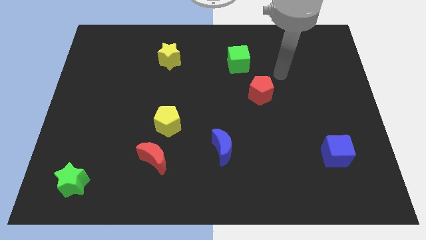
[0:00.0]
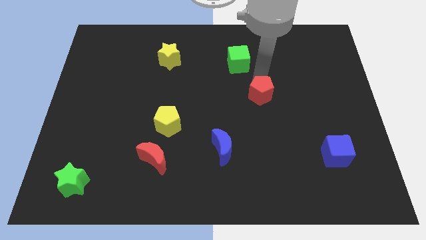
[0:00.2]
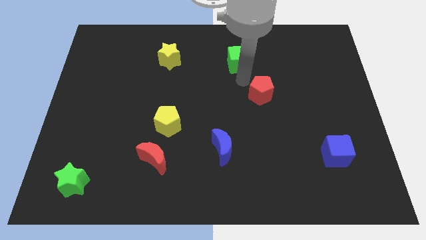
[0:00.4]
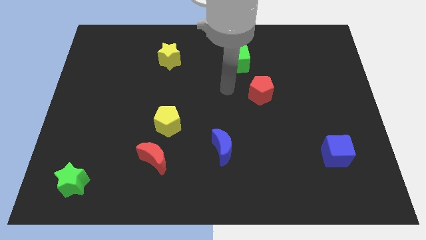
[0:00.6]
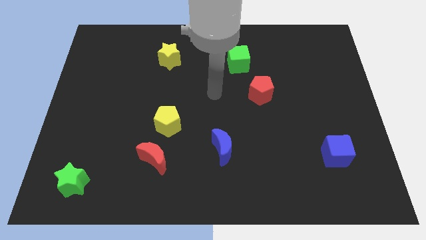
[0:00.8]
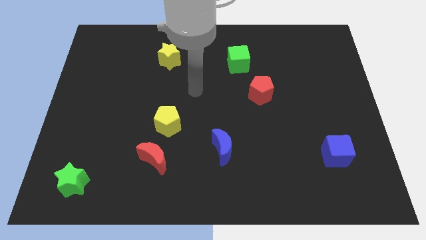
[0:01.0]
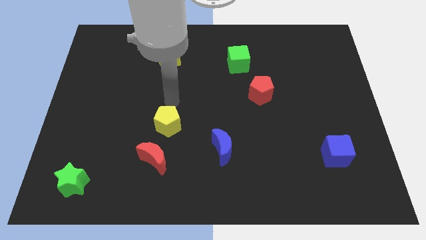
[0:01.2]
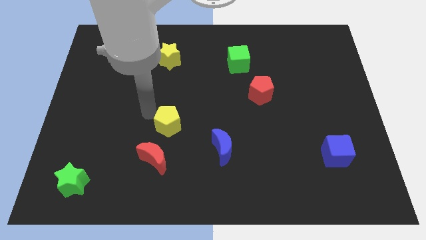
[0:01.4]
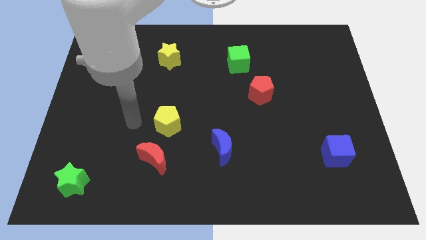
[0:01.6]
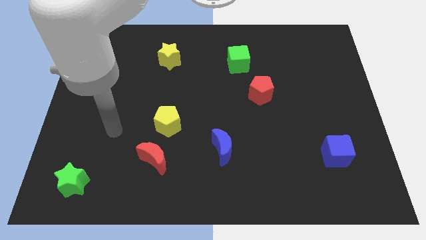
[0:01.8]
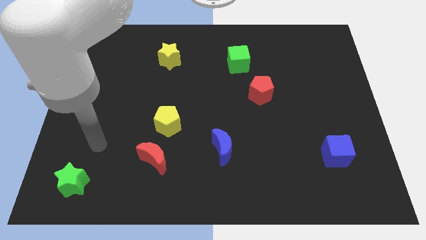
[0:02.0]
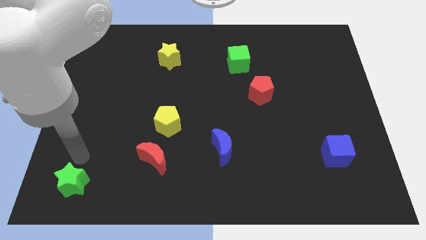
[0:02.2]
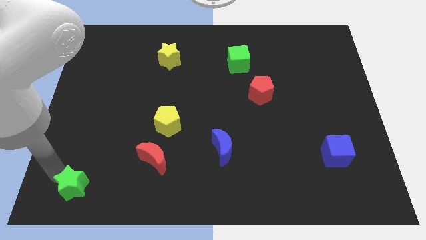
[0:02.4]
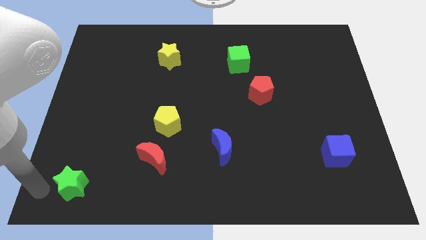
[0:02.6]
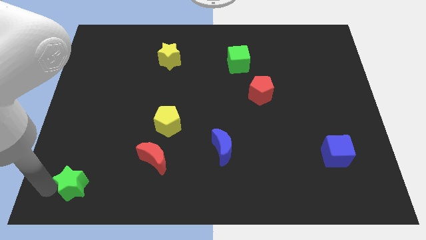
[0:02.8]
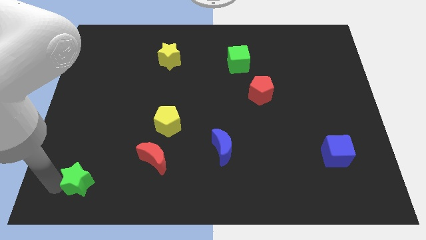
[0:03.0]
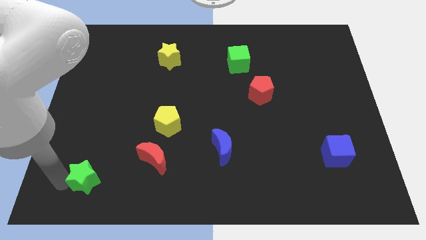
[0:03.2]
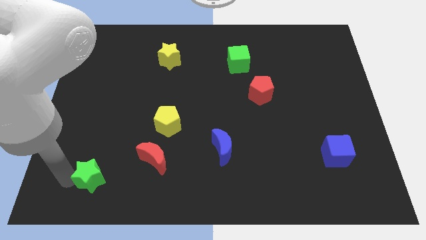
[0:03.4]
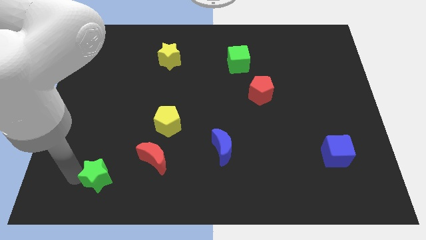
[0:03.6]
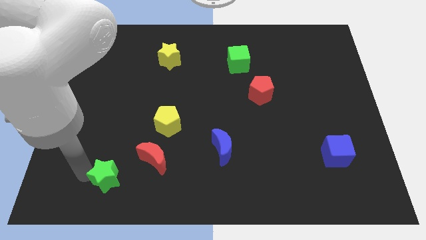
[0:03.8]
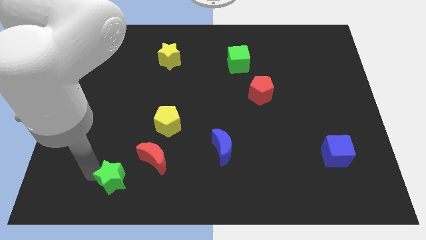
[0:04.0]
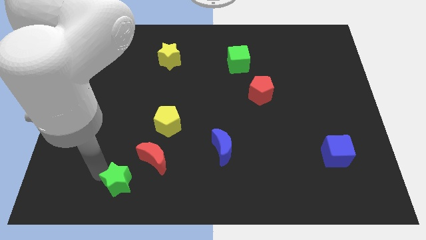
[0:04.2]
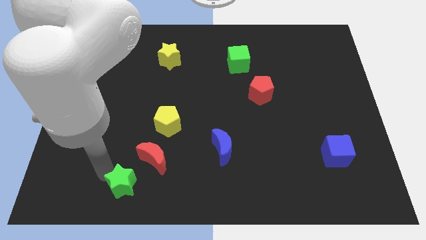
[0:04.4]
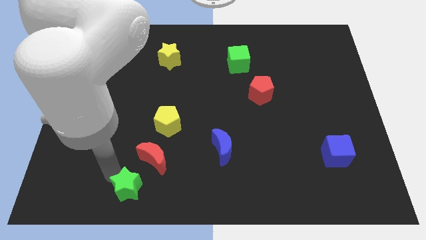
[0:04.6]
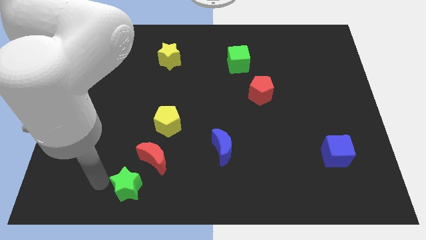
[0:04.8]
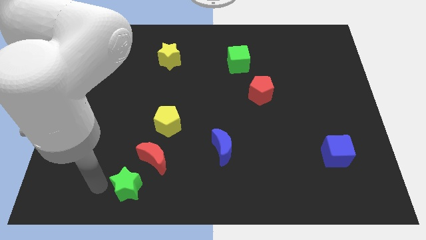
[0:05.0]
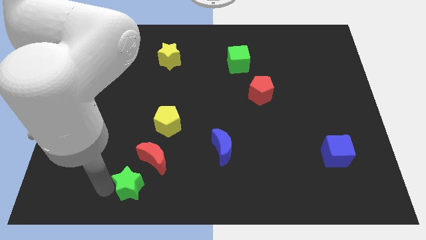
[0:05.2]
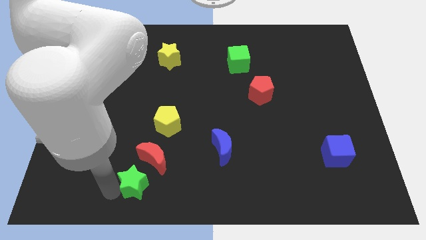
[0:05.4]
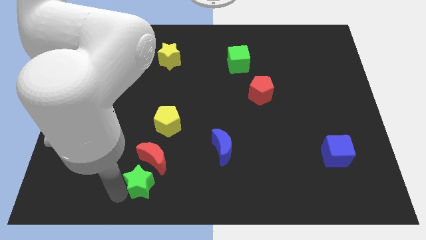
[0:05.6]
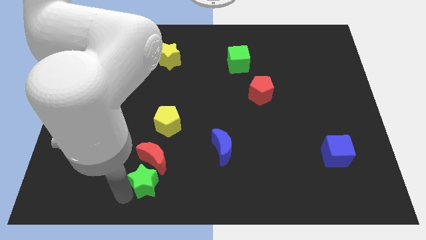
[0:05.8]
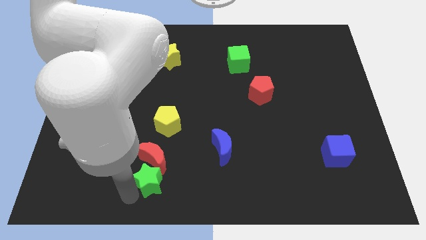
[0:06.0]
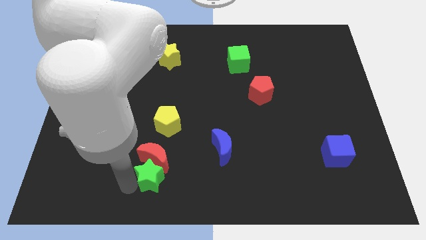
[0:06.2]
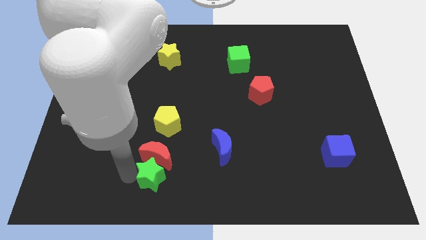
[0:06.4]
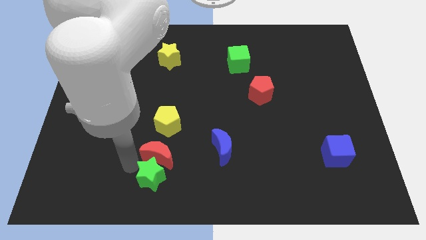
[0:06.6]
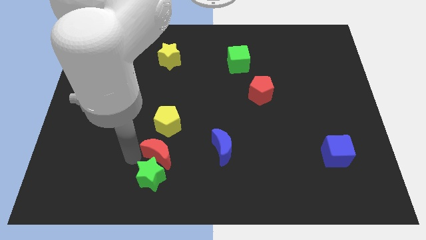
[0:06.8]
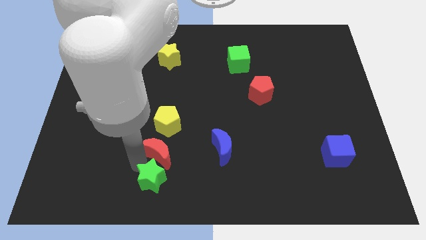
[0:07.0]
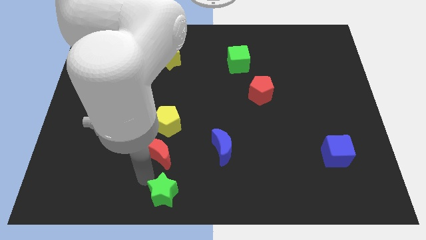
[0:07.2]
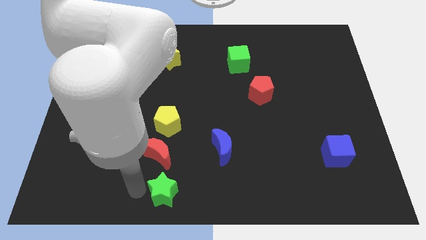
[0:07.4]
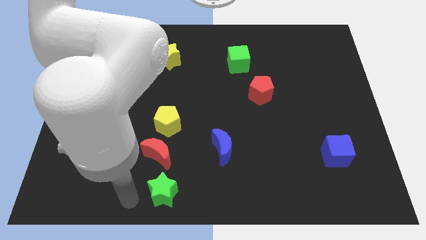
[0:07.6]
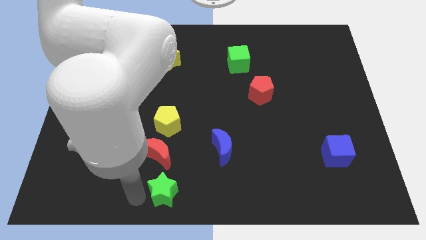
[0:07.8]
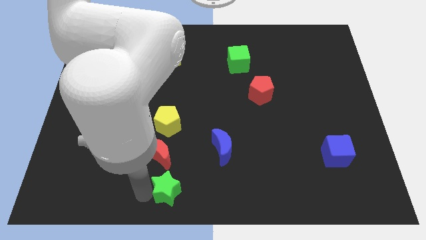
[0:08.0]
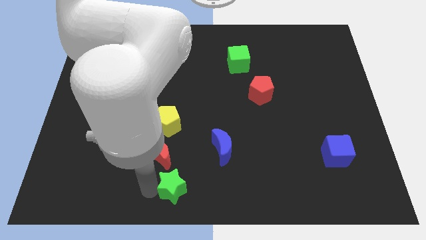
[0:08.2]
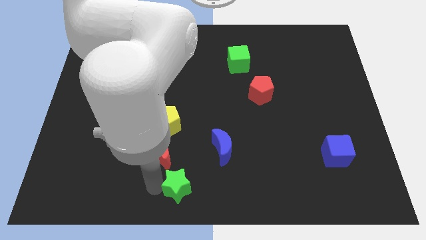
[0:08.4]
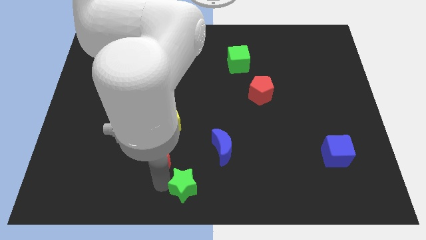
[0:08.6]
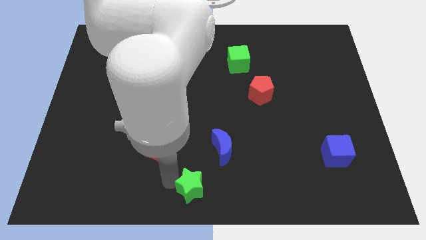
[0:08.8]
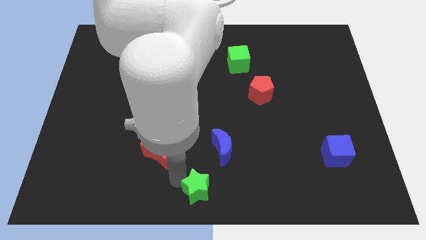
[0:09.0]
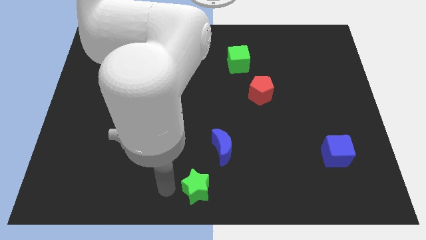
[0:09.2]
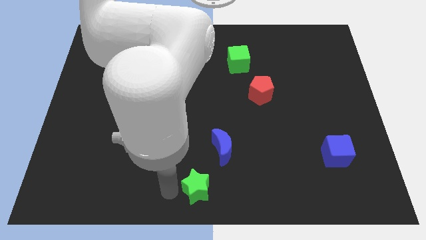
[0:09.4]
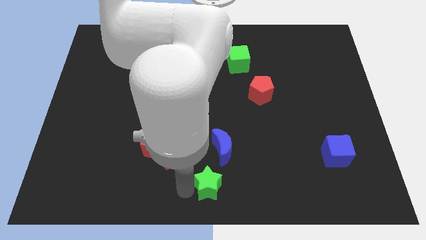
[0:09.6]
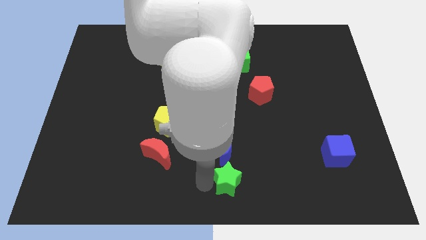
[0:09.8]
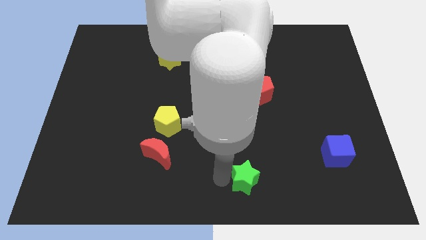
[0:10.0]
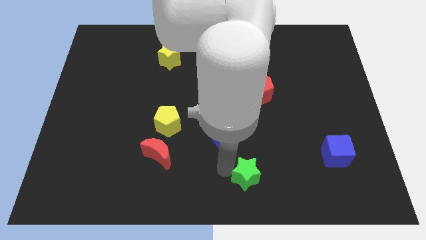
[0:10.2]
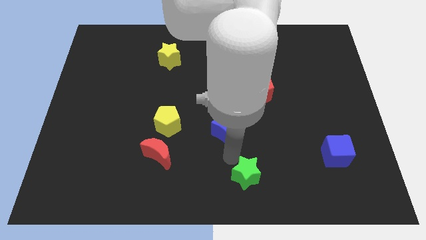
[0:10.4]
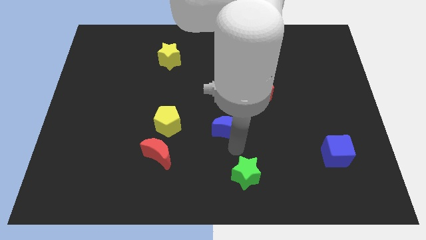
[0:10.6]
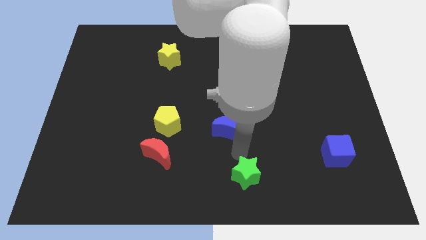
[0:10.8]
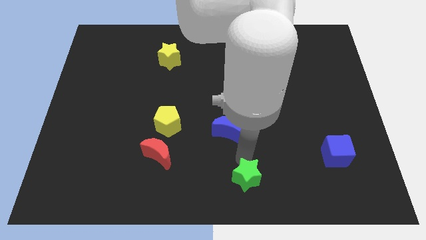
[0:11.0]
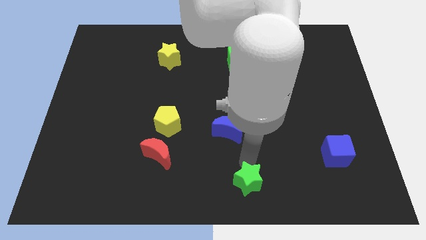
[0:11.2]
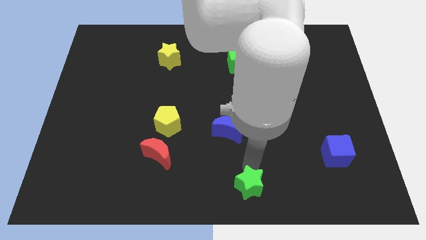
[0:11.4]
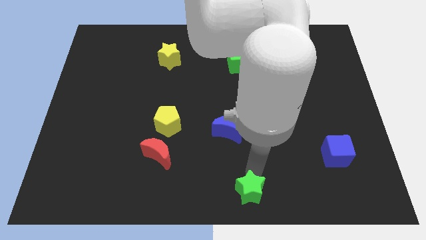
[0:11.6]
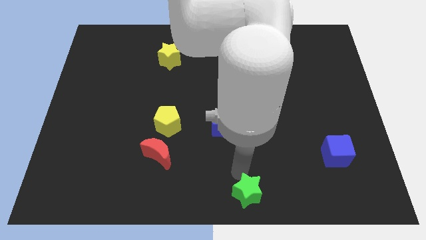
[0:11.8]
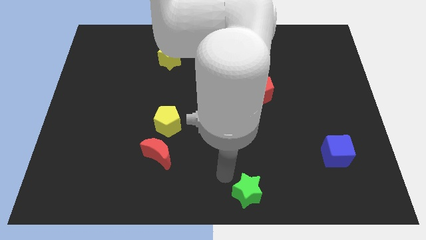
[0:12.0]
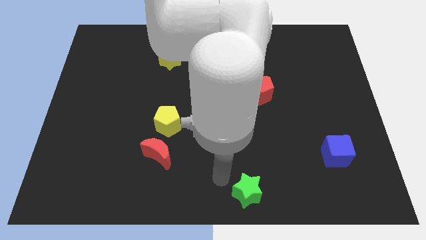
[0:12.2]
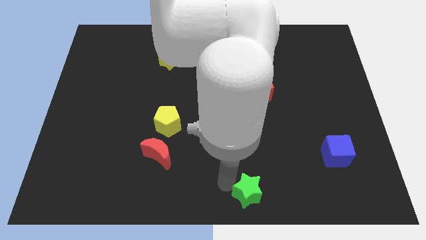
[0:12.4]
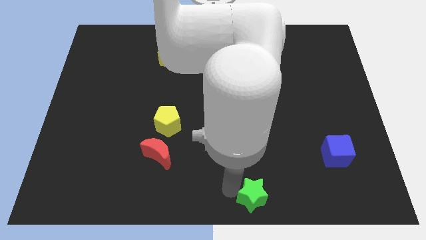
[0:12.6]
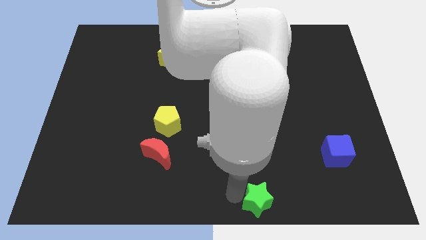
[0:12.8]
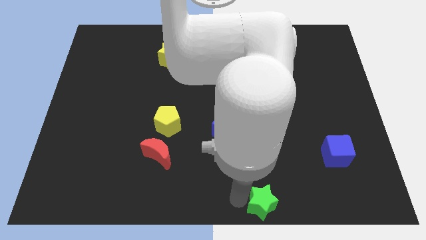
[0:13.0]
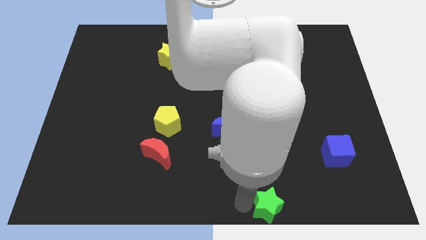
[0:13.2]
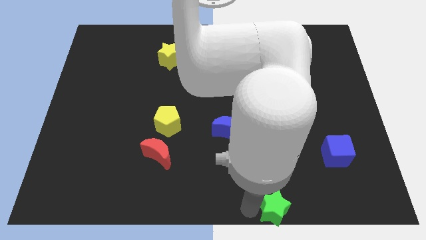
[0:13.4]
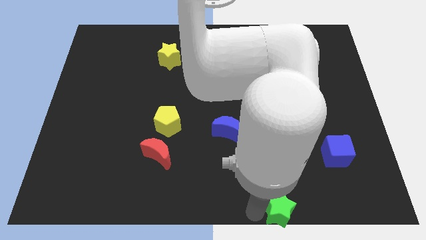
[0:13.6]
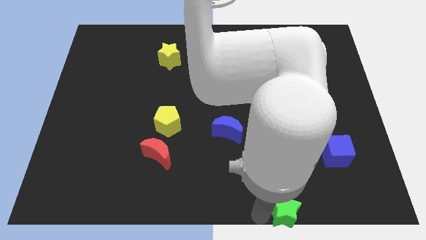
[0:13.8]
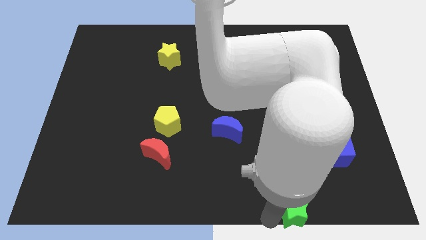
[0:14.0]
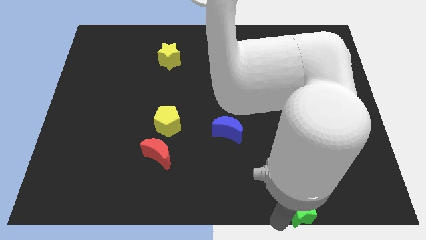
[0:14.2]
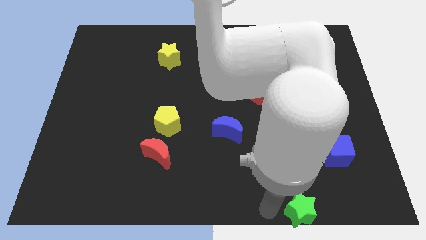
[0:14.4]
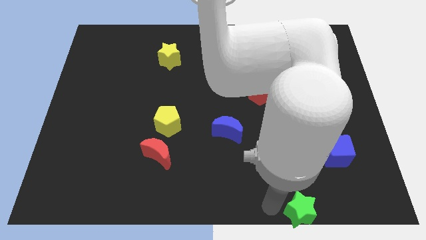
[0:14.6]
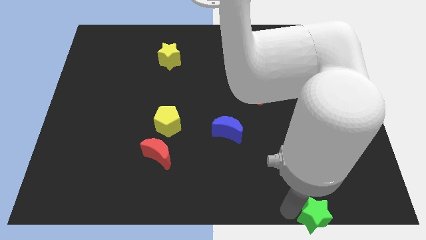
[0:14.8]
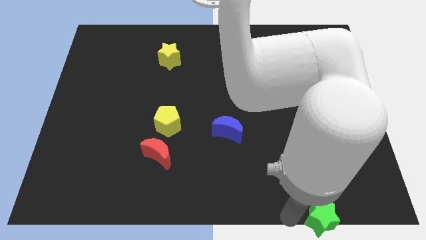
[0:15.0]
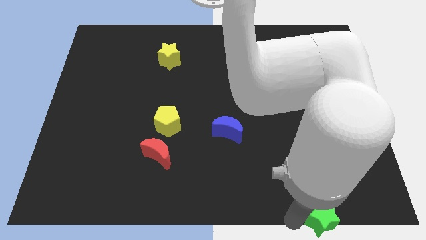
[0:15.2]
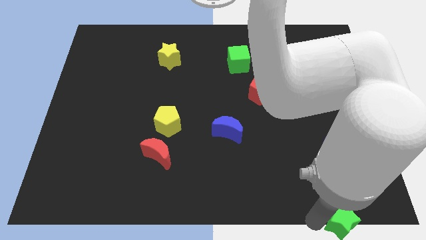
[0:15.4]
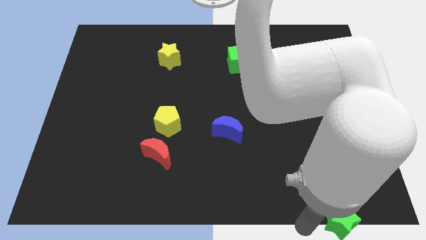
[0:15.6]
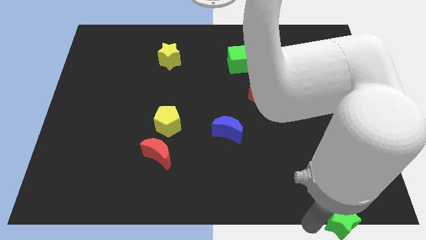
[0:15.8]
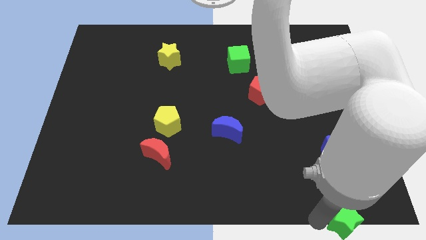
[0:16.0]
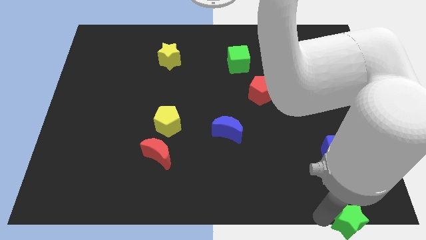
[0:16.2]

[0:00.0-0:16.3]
push the green star to the lower right corner
